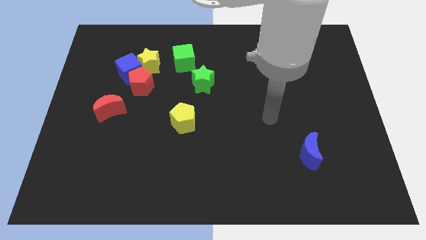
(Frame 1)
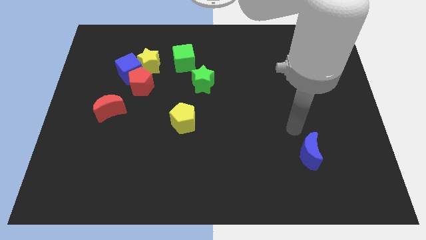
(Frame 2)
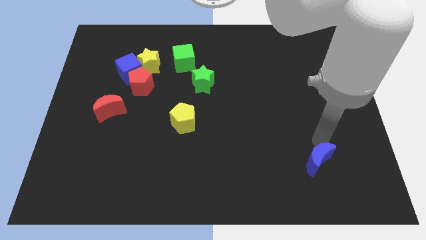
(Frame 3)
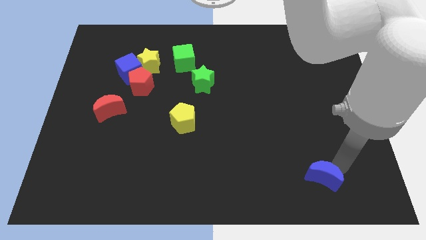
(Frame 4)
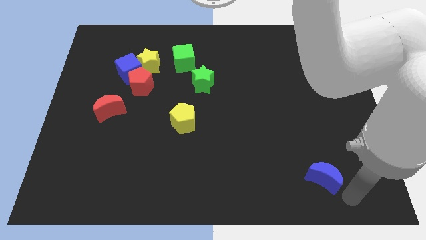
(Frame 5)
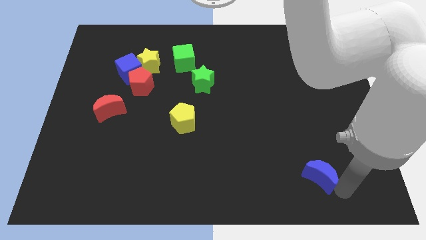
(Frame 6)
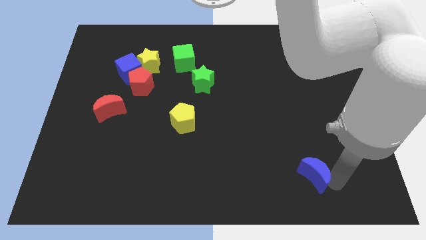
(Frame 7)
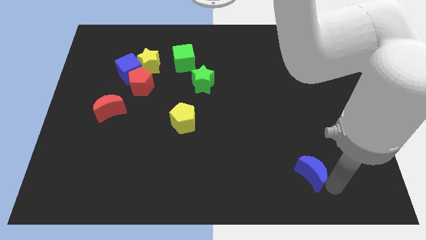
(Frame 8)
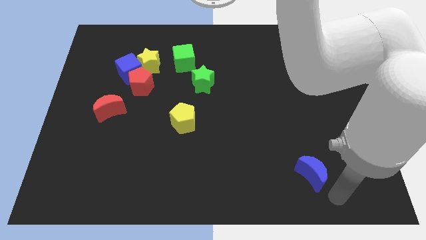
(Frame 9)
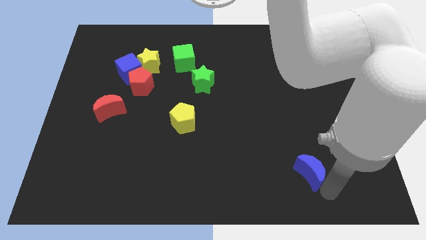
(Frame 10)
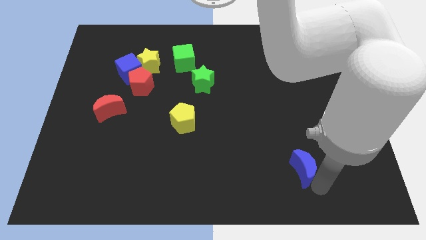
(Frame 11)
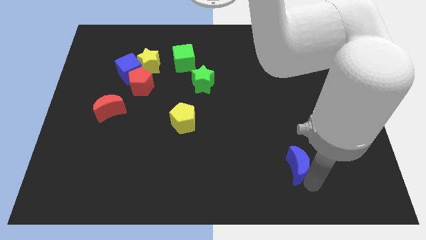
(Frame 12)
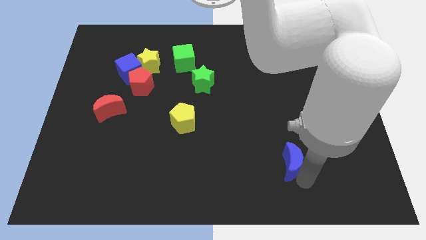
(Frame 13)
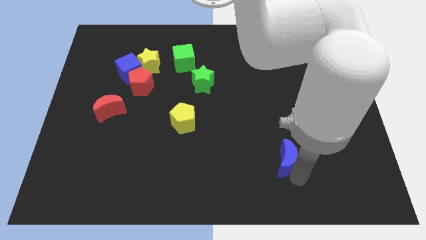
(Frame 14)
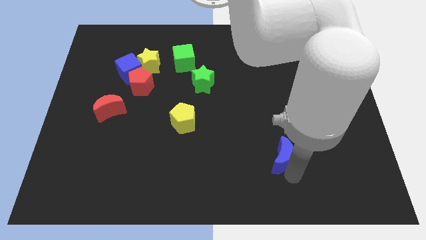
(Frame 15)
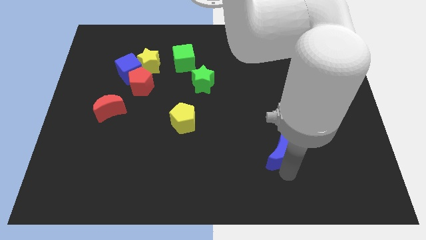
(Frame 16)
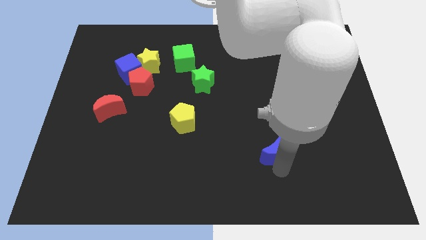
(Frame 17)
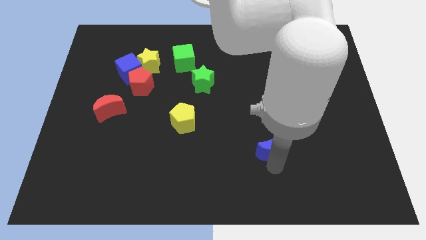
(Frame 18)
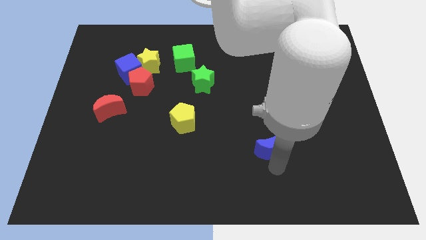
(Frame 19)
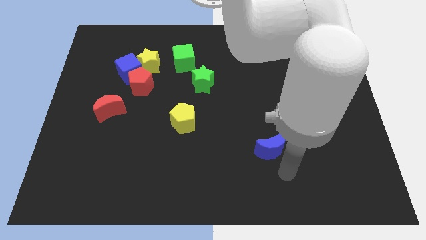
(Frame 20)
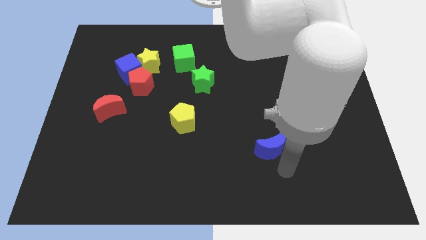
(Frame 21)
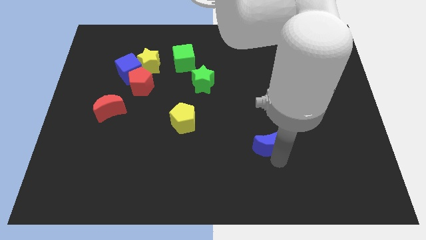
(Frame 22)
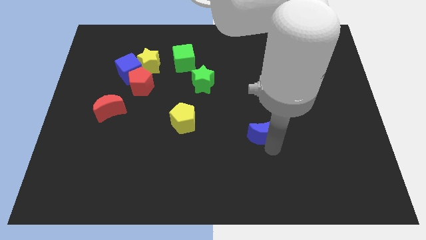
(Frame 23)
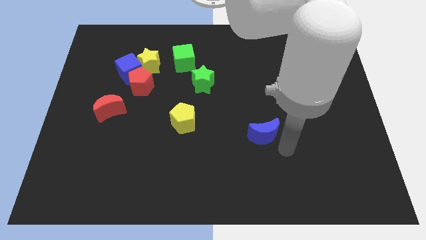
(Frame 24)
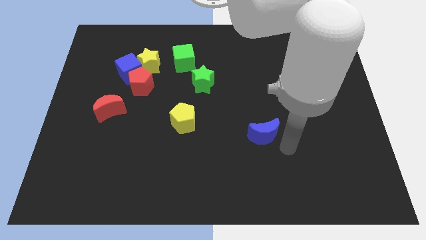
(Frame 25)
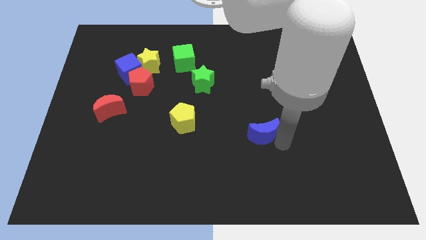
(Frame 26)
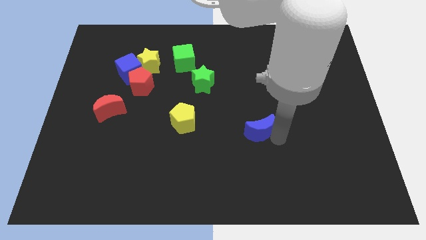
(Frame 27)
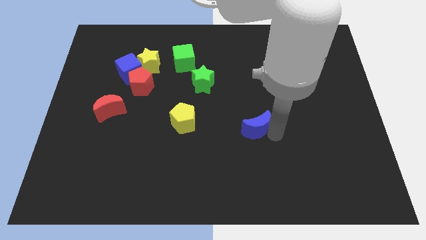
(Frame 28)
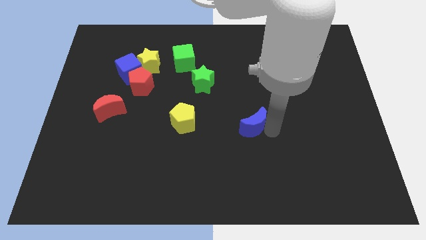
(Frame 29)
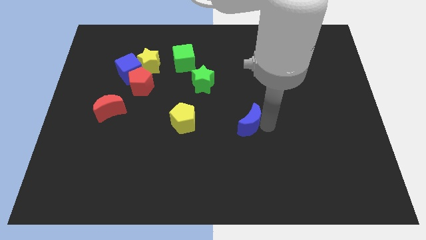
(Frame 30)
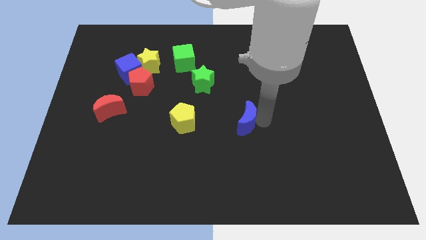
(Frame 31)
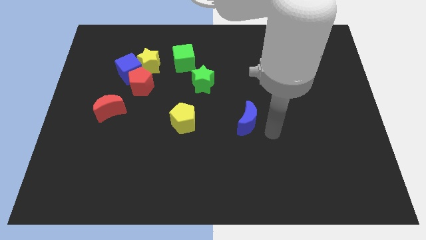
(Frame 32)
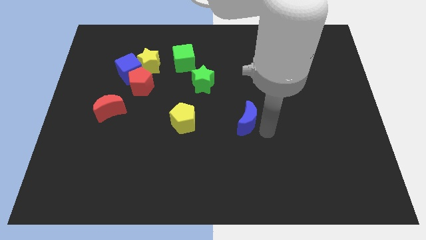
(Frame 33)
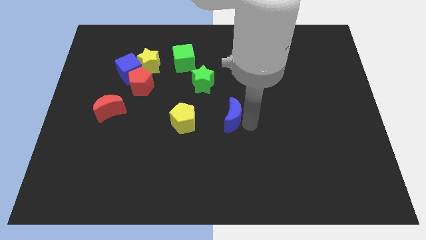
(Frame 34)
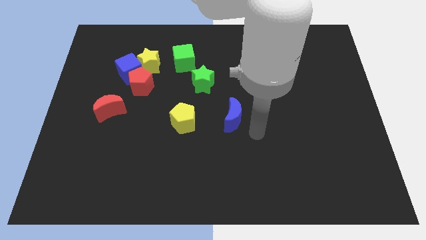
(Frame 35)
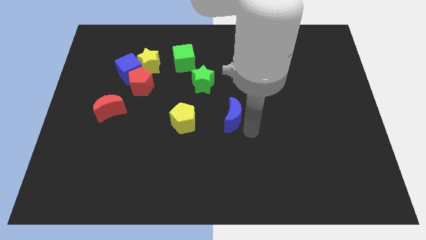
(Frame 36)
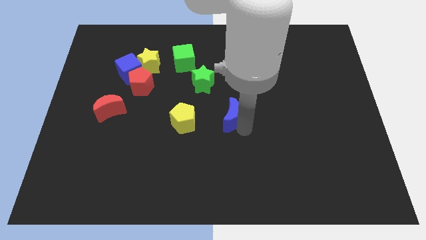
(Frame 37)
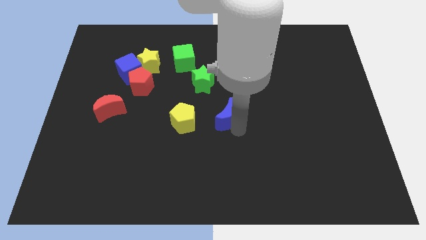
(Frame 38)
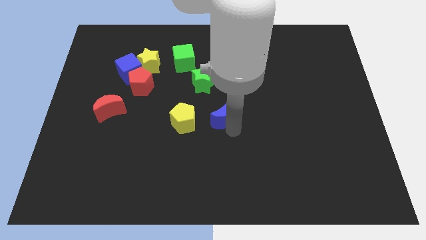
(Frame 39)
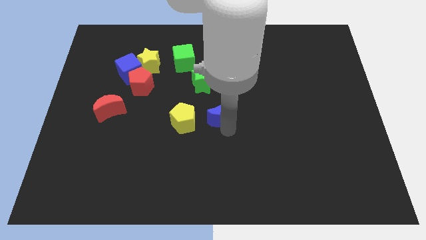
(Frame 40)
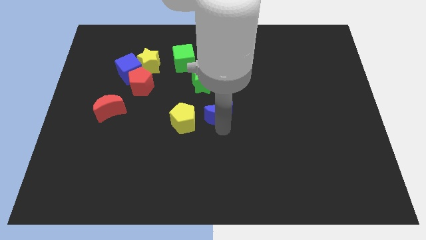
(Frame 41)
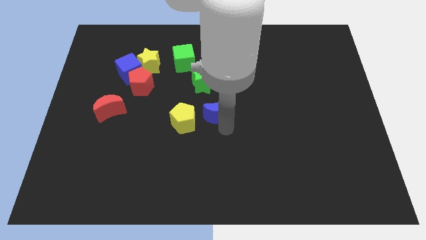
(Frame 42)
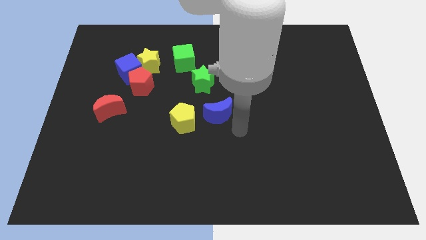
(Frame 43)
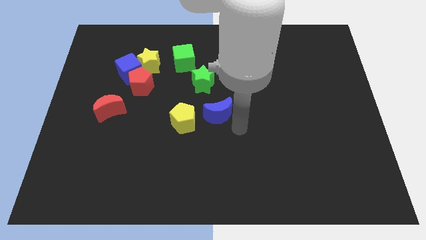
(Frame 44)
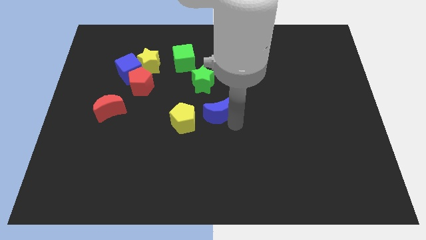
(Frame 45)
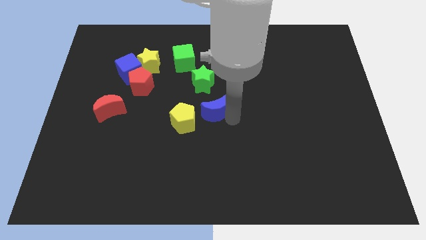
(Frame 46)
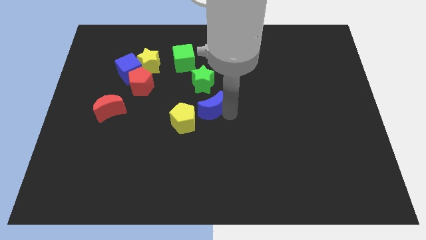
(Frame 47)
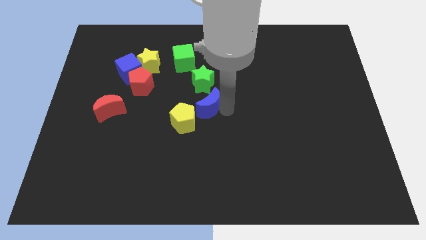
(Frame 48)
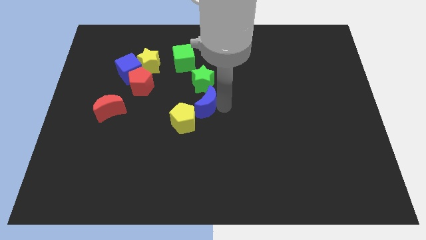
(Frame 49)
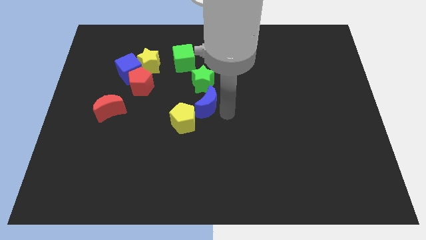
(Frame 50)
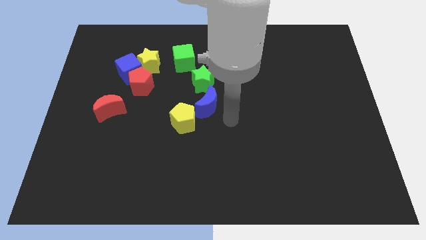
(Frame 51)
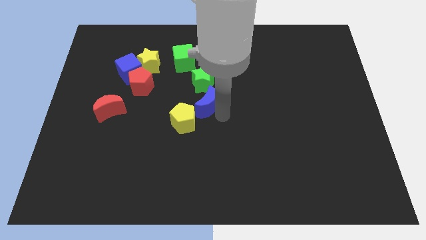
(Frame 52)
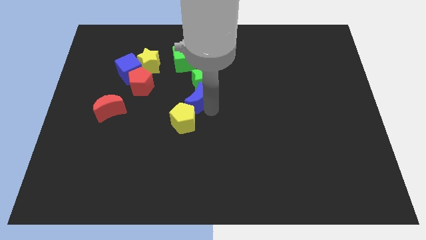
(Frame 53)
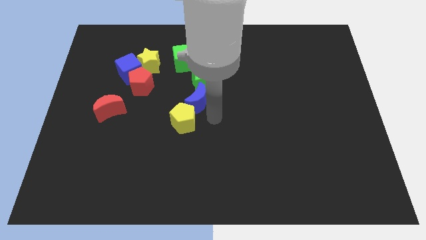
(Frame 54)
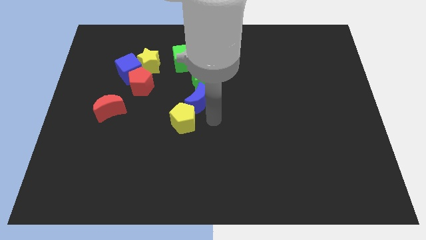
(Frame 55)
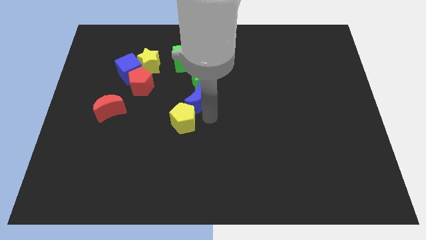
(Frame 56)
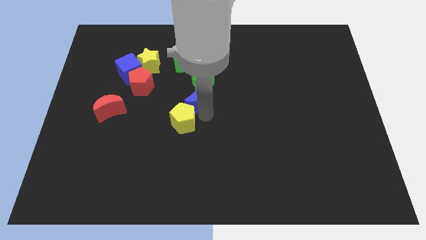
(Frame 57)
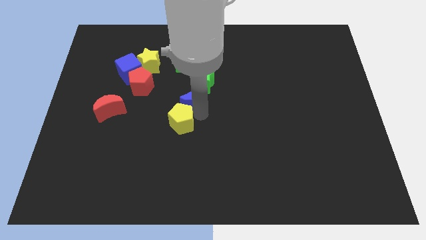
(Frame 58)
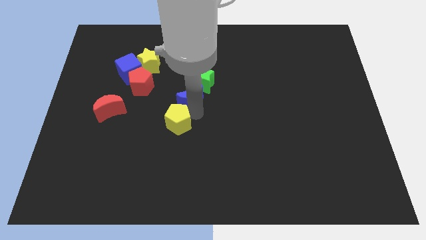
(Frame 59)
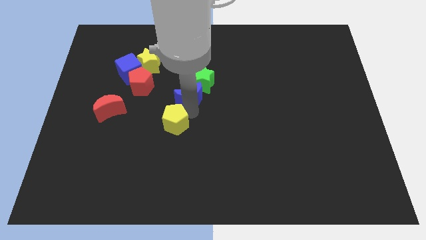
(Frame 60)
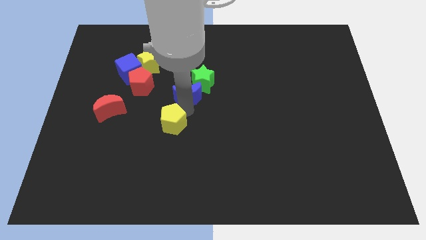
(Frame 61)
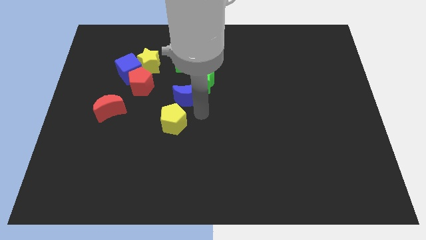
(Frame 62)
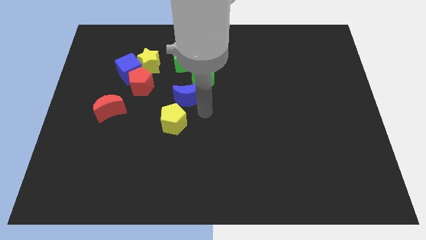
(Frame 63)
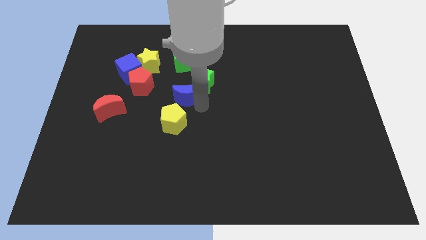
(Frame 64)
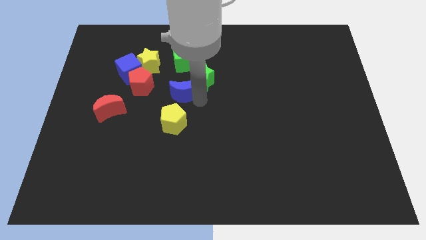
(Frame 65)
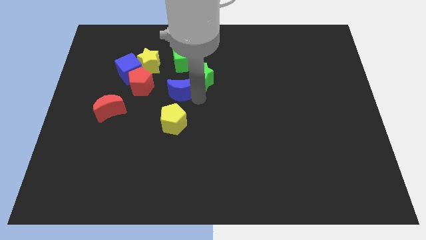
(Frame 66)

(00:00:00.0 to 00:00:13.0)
slide the blue moon to the bottom right side of the yellow star
